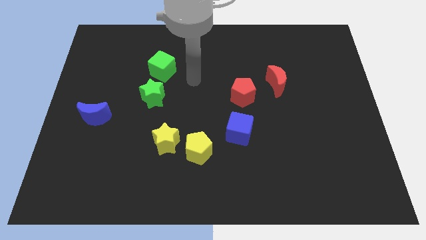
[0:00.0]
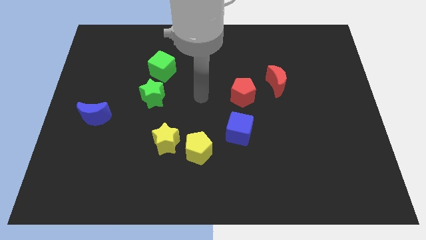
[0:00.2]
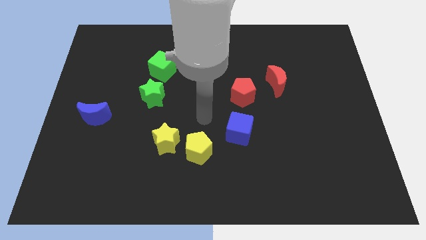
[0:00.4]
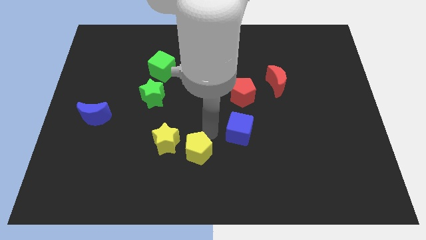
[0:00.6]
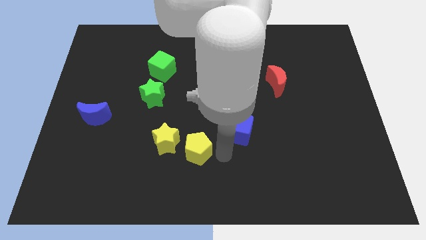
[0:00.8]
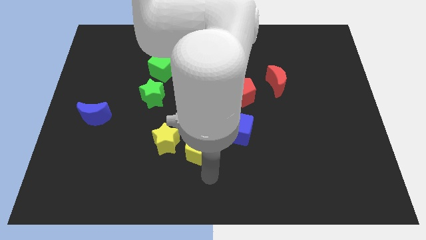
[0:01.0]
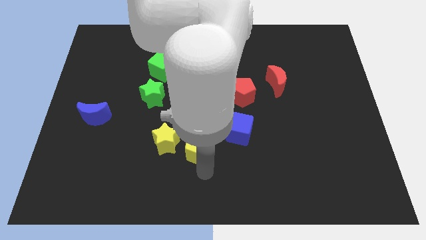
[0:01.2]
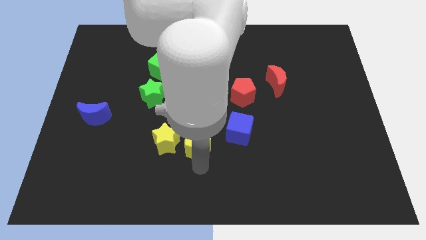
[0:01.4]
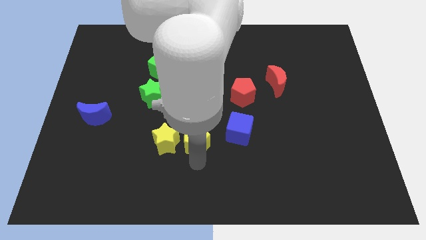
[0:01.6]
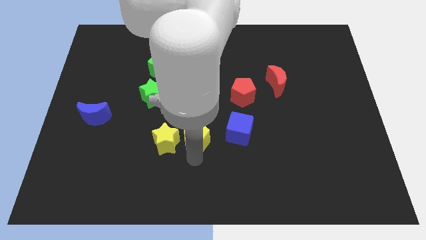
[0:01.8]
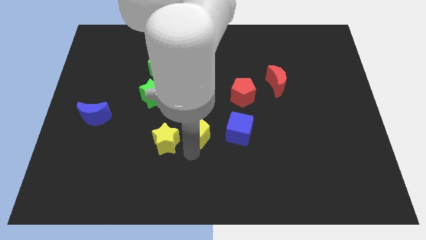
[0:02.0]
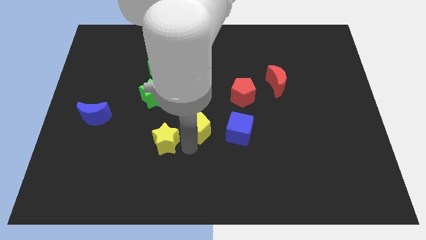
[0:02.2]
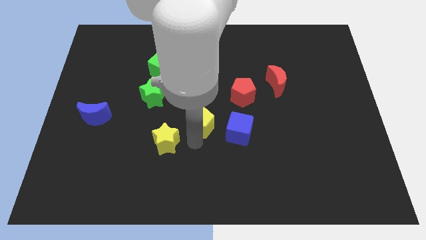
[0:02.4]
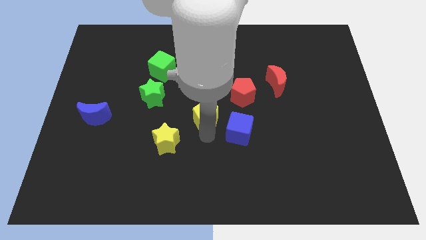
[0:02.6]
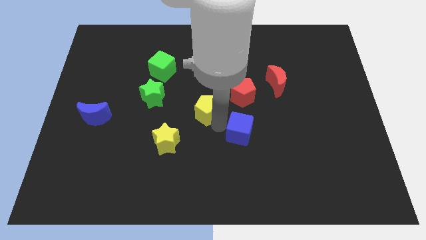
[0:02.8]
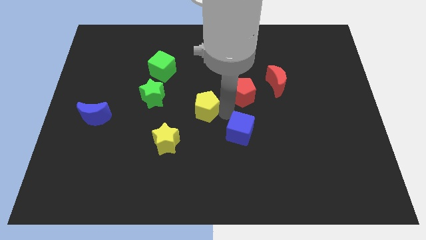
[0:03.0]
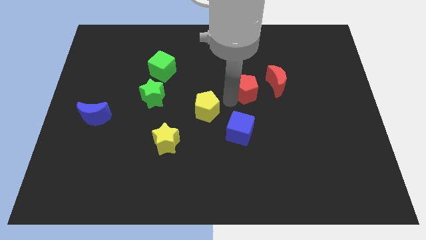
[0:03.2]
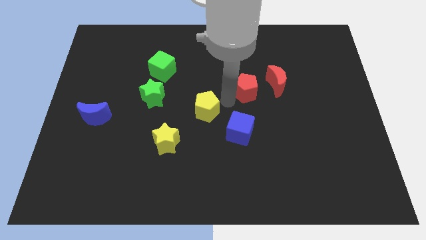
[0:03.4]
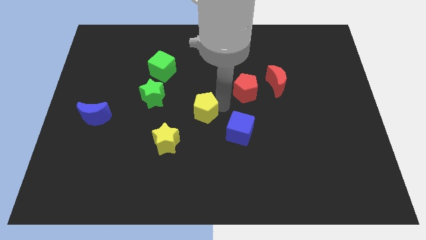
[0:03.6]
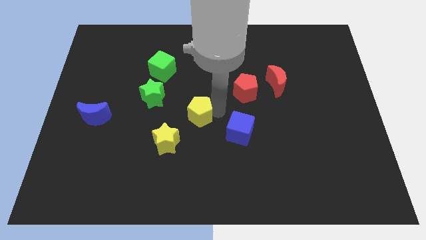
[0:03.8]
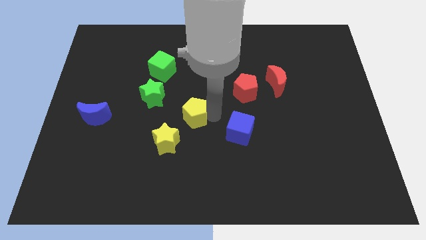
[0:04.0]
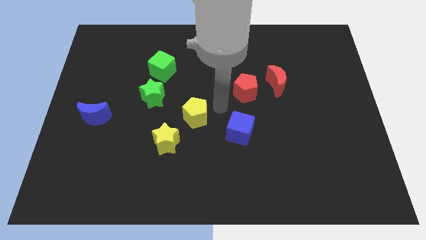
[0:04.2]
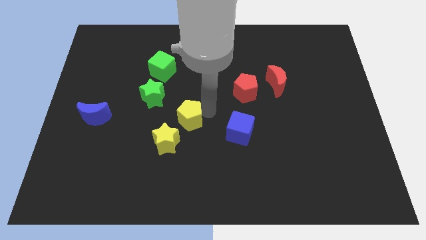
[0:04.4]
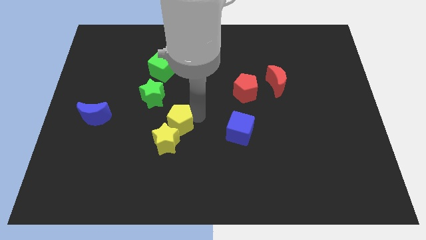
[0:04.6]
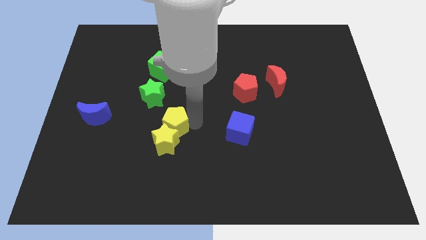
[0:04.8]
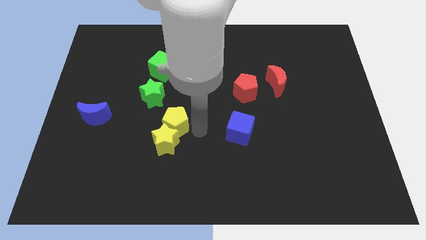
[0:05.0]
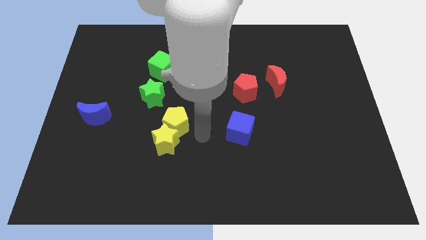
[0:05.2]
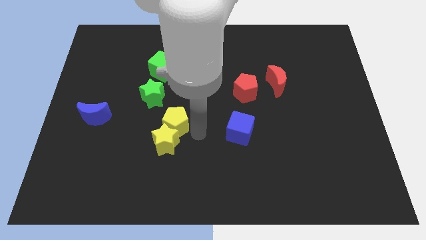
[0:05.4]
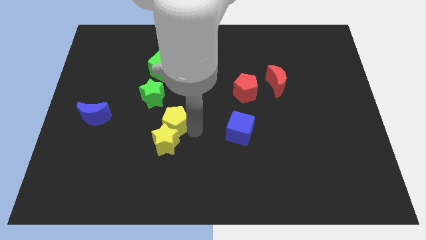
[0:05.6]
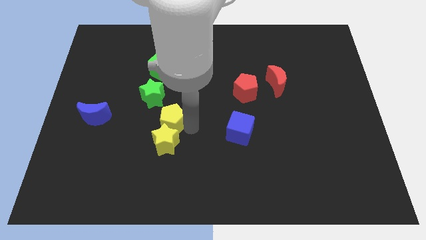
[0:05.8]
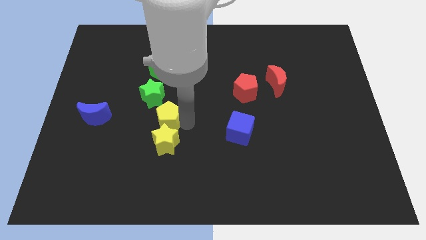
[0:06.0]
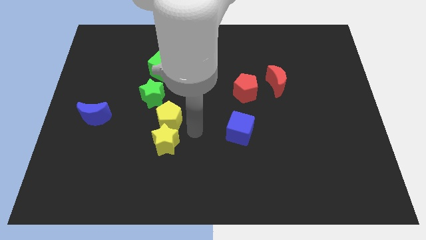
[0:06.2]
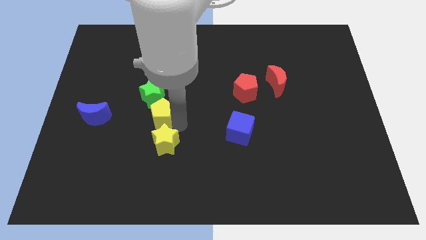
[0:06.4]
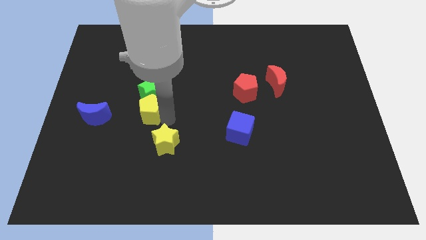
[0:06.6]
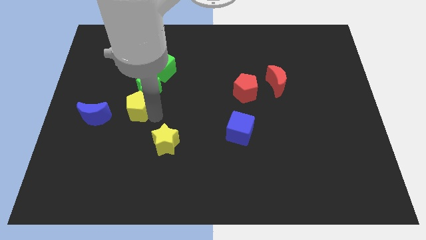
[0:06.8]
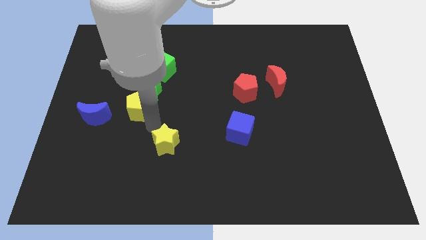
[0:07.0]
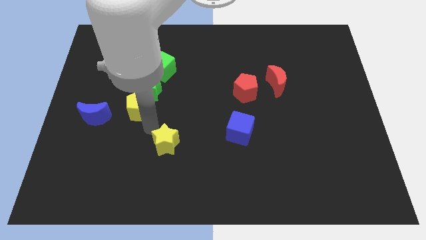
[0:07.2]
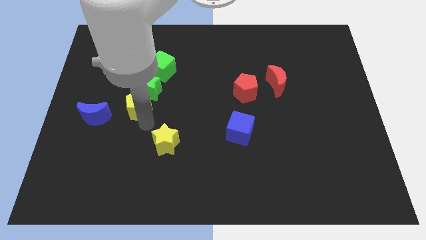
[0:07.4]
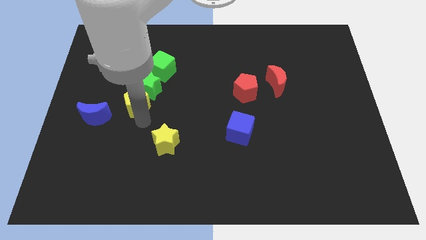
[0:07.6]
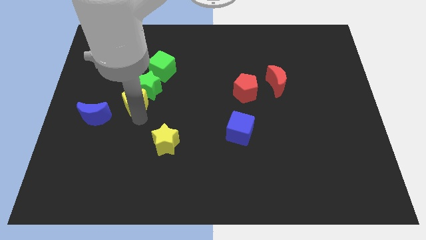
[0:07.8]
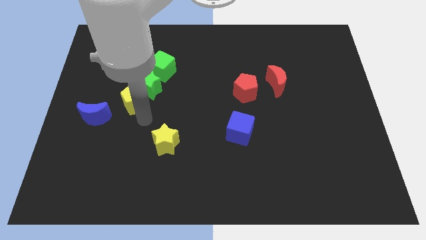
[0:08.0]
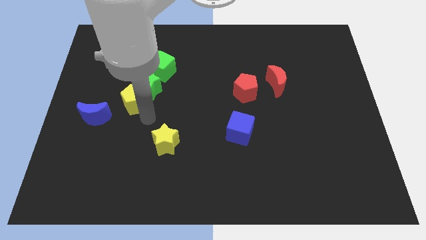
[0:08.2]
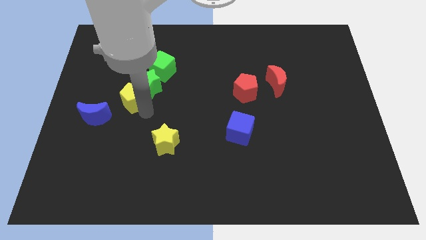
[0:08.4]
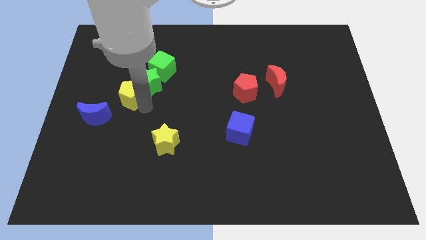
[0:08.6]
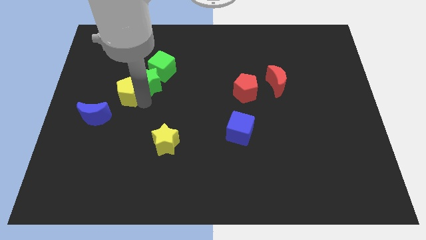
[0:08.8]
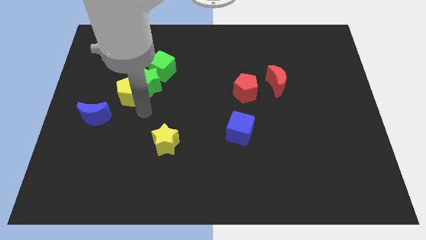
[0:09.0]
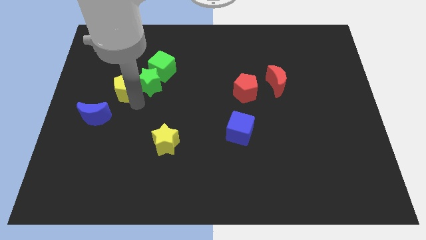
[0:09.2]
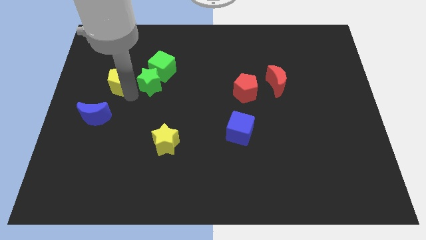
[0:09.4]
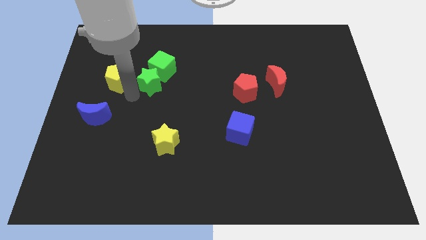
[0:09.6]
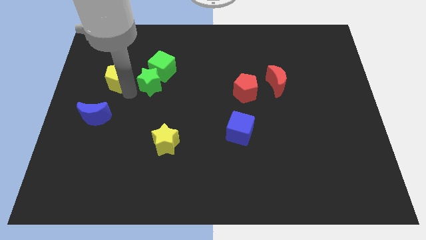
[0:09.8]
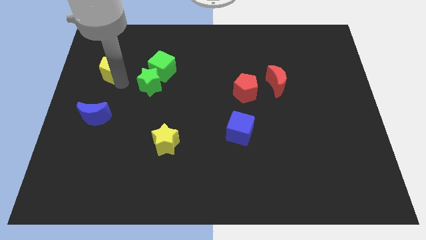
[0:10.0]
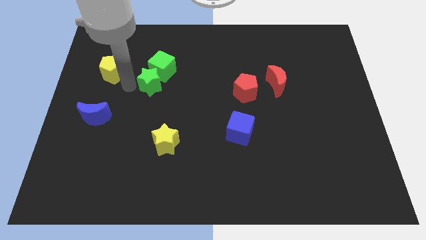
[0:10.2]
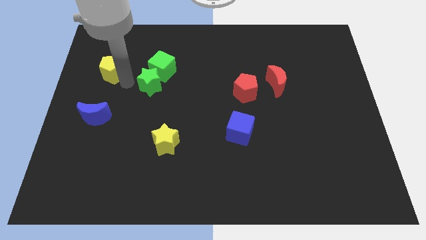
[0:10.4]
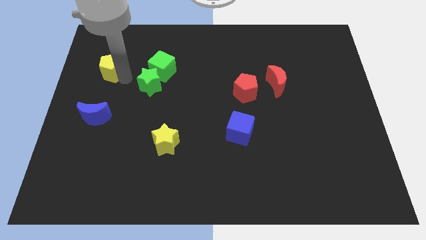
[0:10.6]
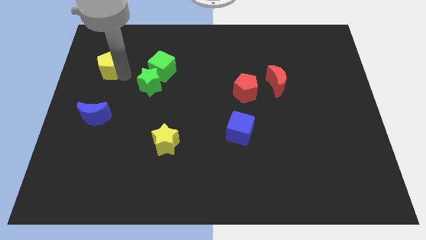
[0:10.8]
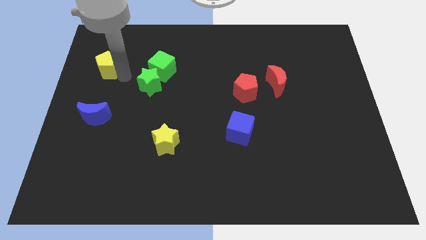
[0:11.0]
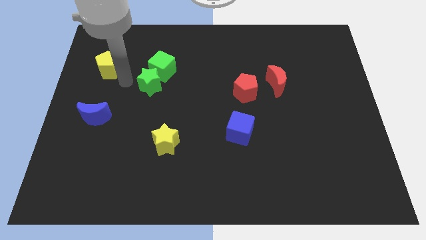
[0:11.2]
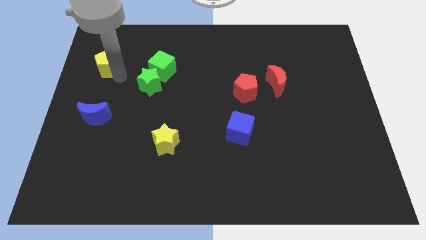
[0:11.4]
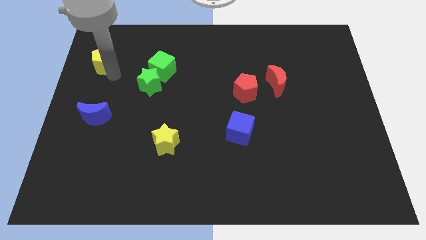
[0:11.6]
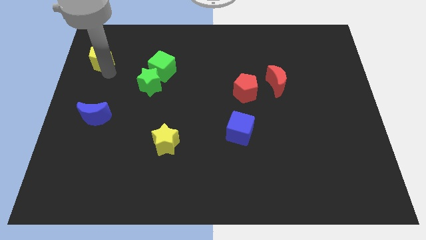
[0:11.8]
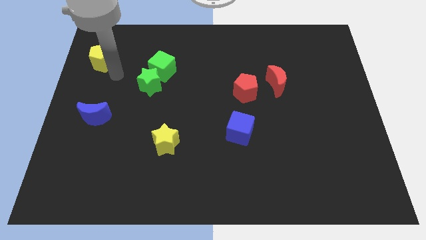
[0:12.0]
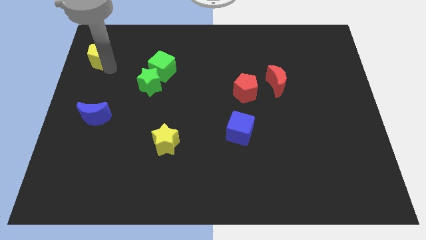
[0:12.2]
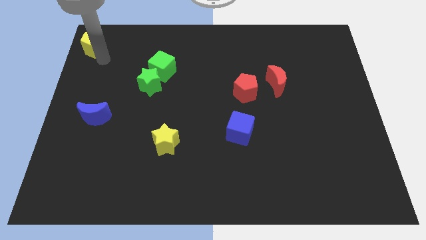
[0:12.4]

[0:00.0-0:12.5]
slide the yellow pentagon to the top left corner
